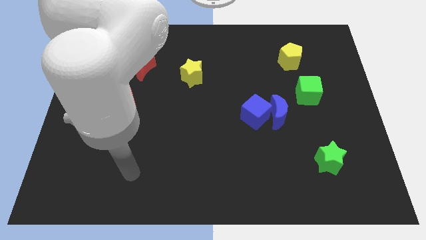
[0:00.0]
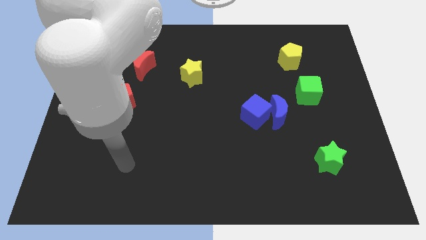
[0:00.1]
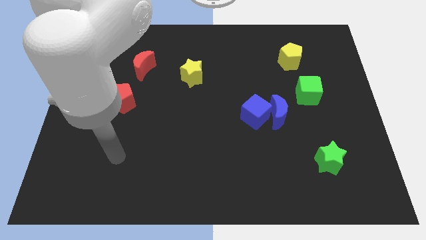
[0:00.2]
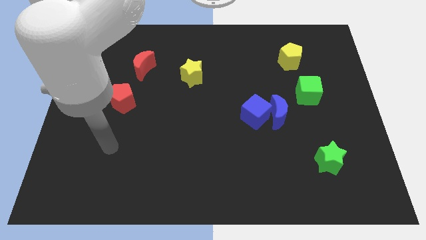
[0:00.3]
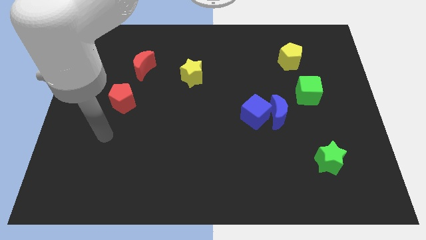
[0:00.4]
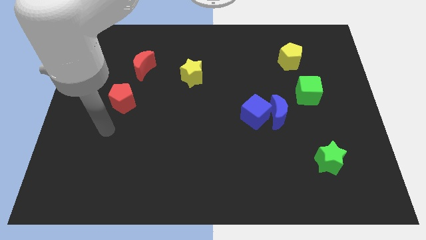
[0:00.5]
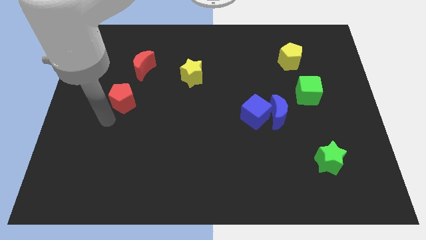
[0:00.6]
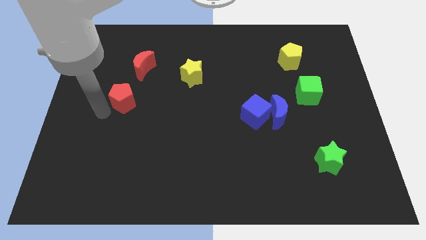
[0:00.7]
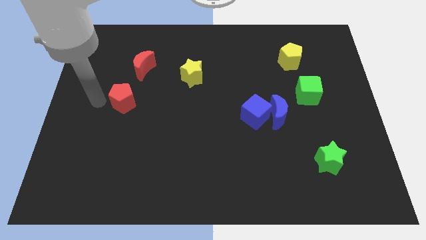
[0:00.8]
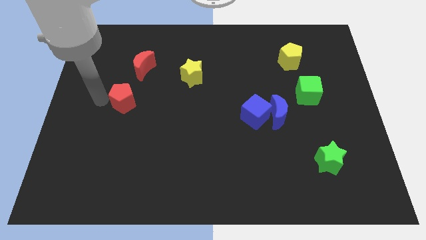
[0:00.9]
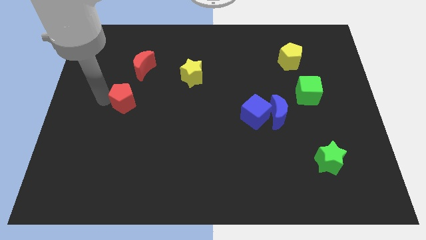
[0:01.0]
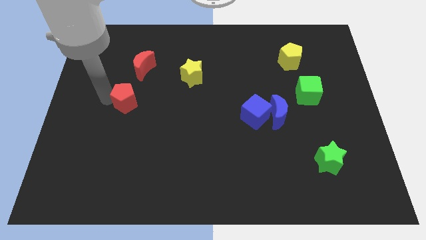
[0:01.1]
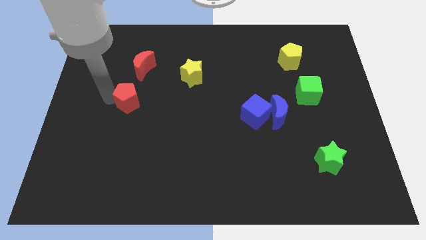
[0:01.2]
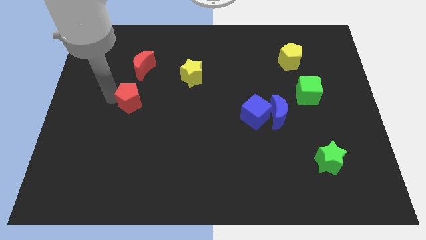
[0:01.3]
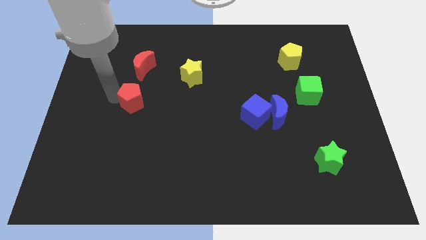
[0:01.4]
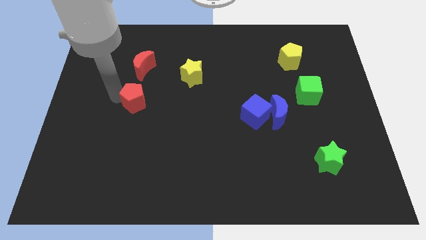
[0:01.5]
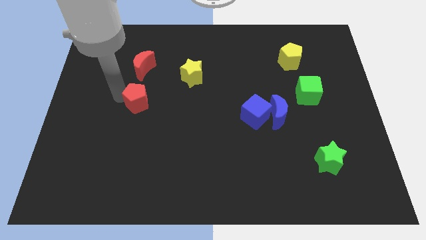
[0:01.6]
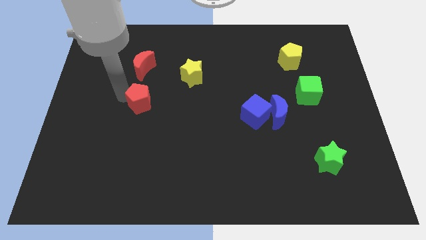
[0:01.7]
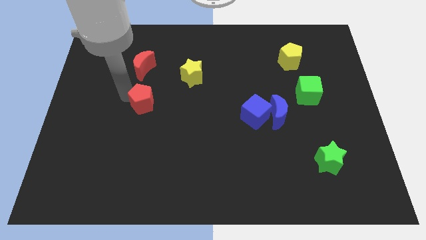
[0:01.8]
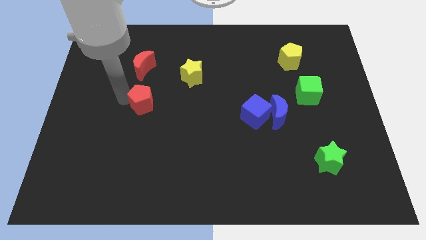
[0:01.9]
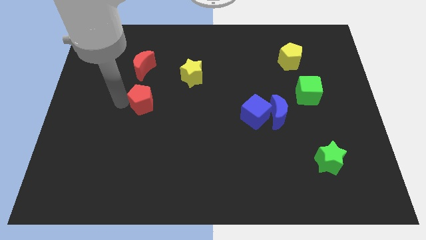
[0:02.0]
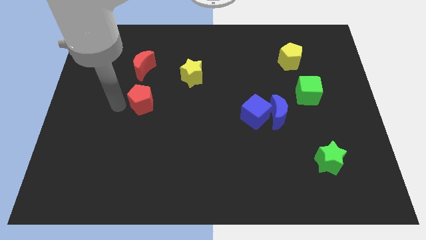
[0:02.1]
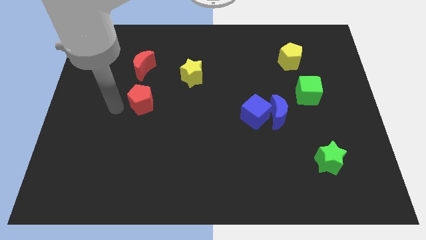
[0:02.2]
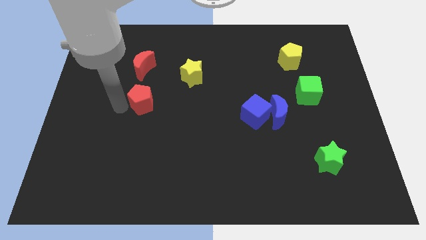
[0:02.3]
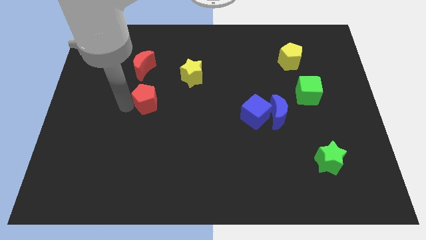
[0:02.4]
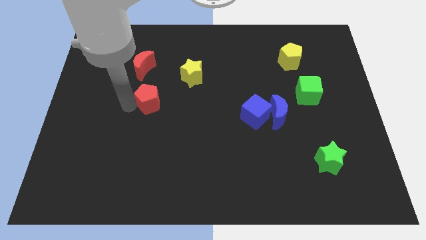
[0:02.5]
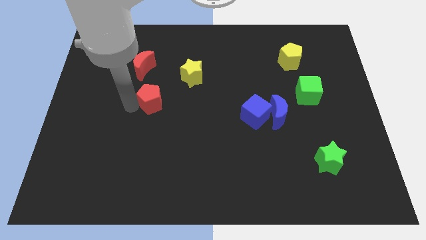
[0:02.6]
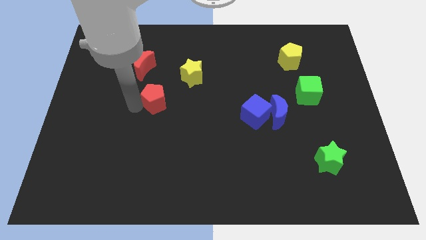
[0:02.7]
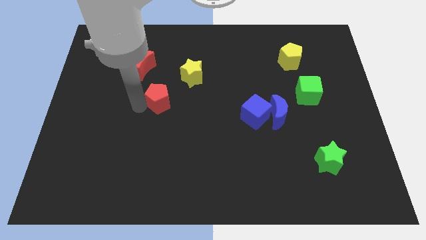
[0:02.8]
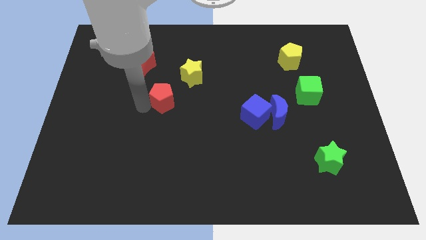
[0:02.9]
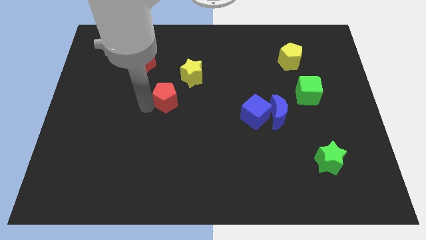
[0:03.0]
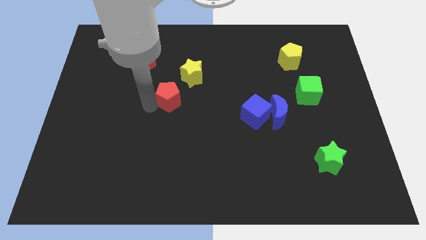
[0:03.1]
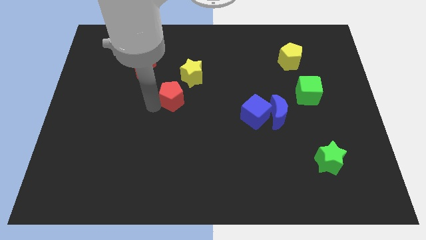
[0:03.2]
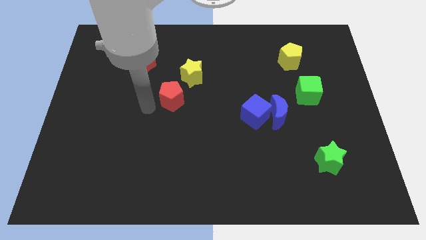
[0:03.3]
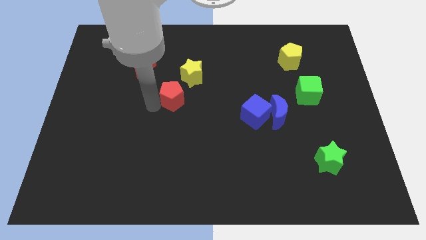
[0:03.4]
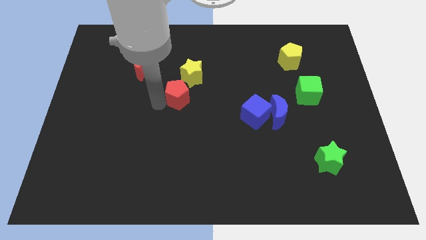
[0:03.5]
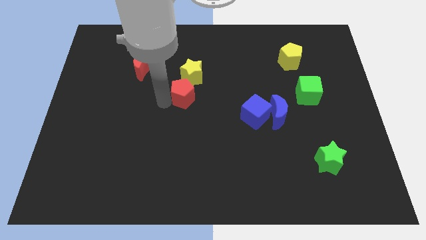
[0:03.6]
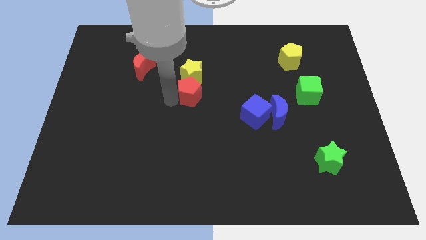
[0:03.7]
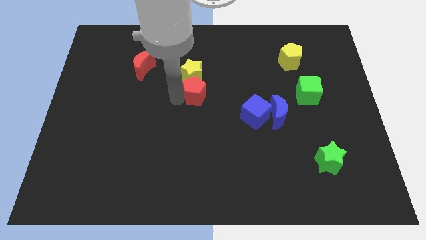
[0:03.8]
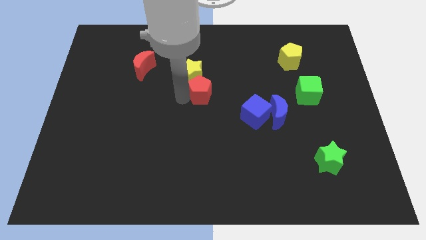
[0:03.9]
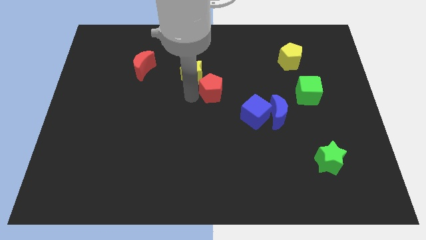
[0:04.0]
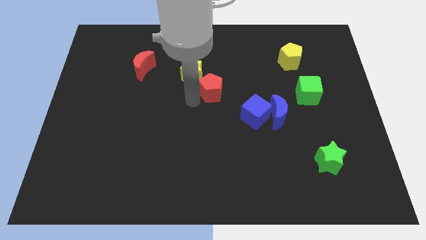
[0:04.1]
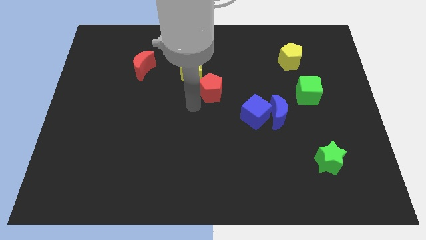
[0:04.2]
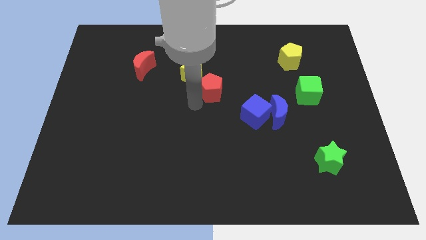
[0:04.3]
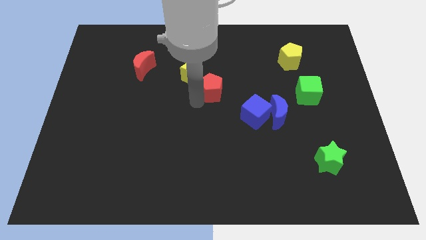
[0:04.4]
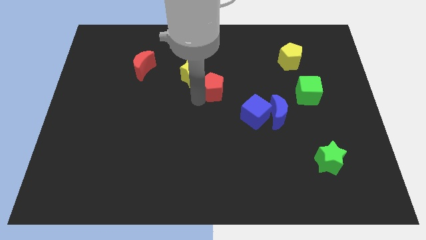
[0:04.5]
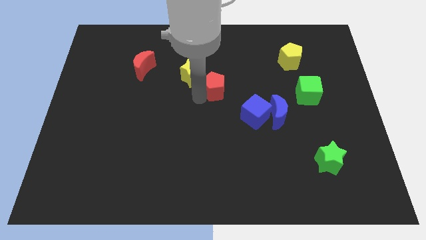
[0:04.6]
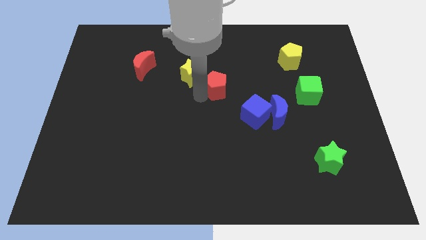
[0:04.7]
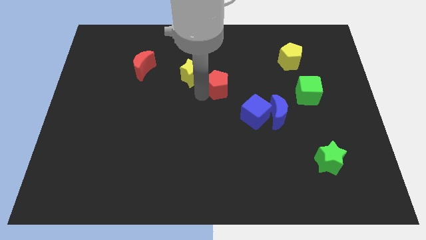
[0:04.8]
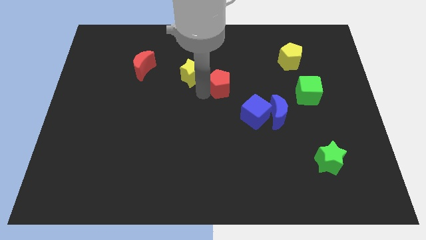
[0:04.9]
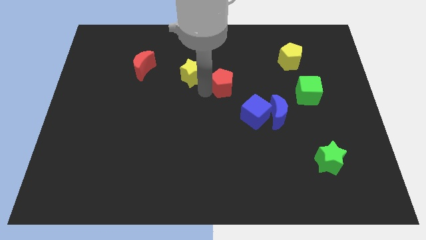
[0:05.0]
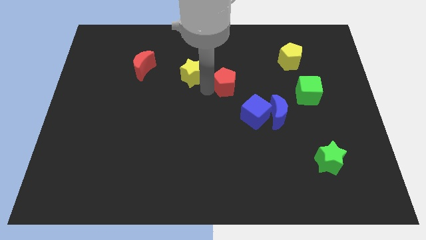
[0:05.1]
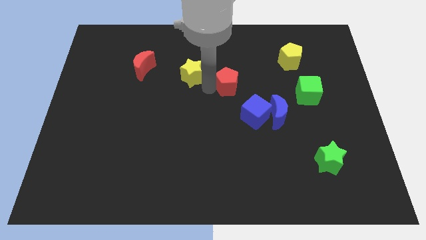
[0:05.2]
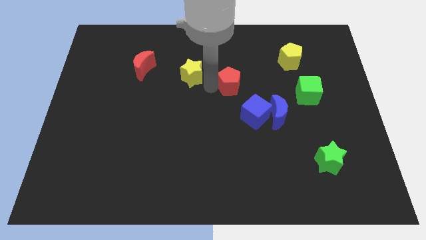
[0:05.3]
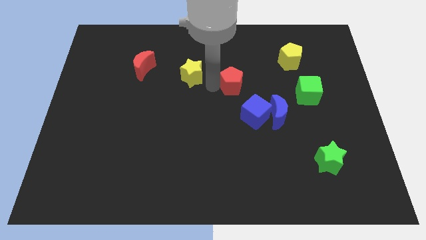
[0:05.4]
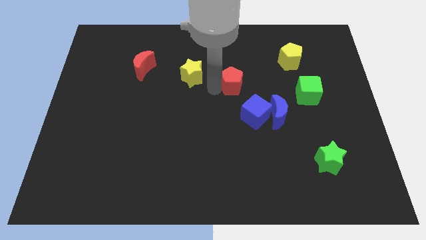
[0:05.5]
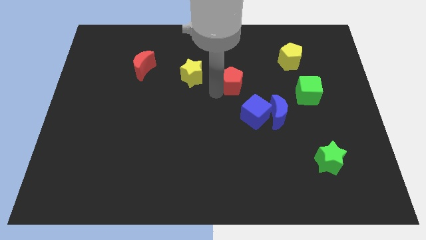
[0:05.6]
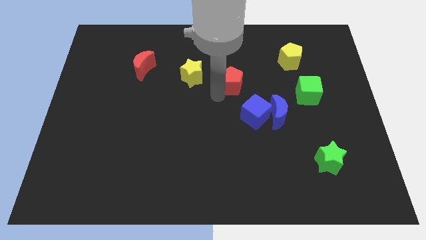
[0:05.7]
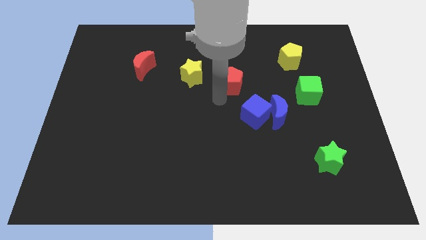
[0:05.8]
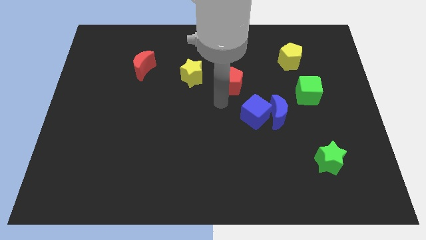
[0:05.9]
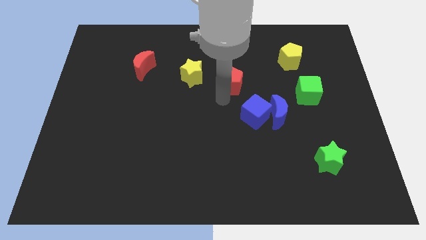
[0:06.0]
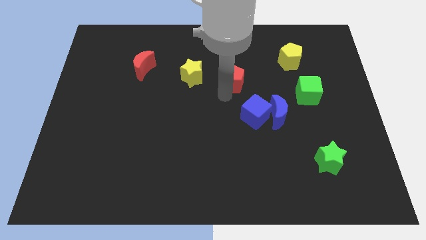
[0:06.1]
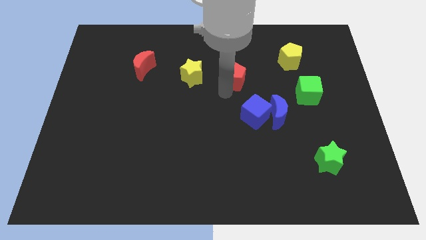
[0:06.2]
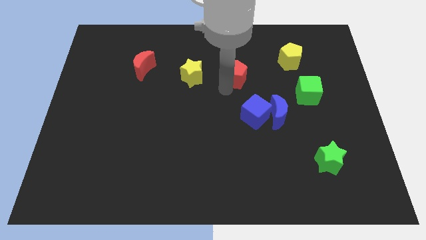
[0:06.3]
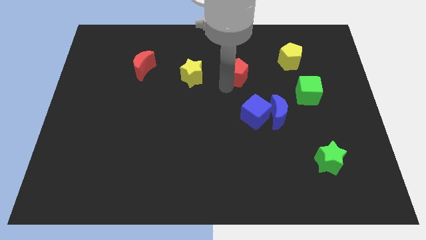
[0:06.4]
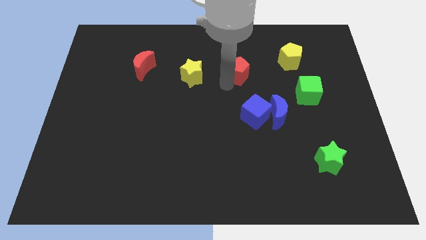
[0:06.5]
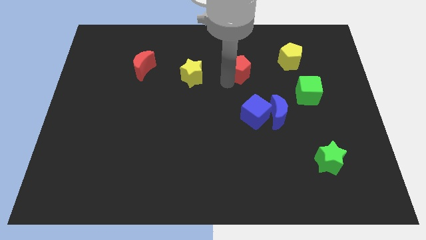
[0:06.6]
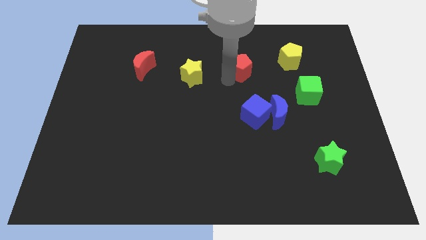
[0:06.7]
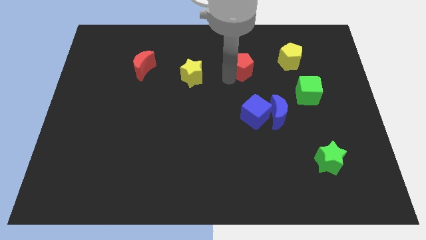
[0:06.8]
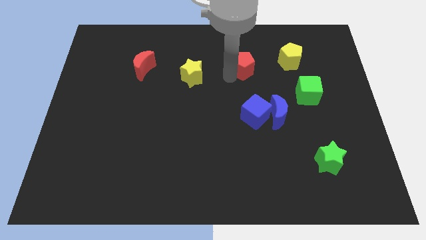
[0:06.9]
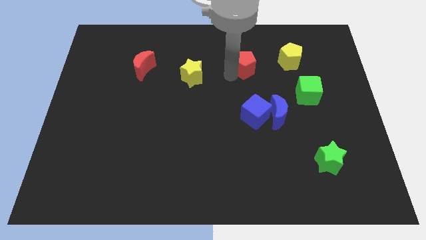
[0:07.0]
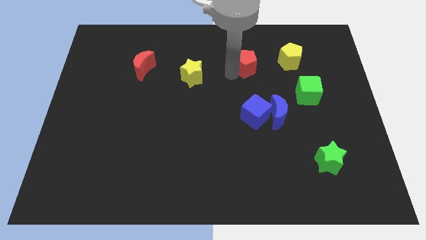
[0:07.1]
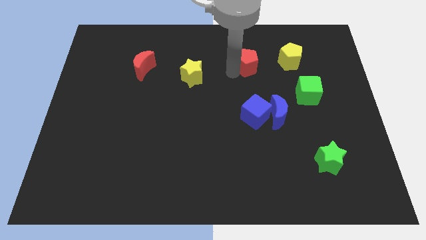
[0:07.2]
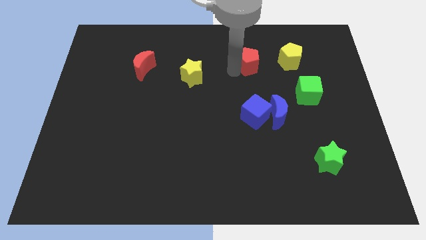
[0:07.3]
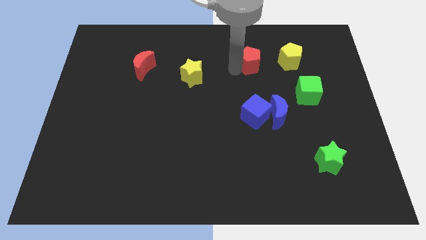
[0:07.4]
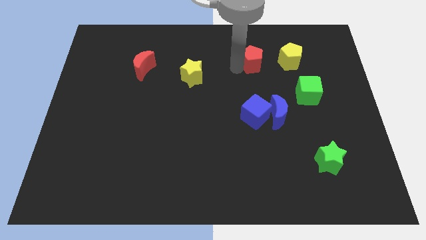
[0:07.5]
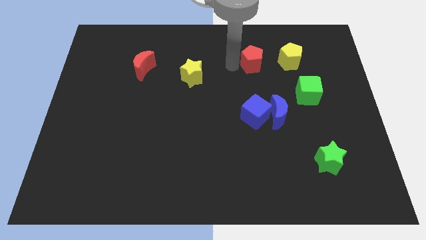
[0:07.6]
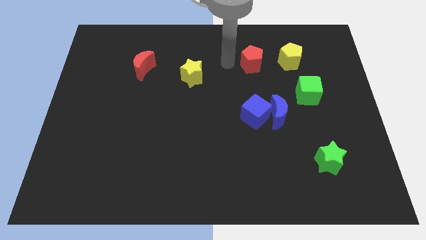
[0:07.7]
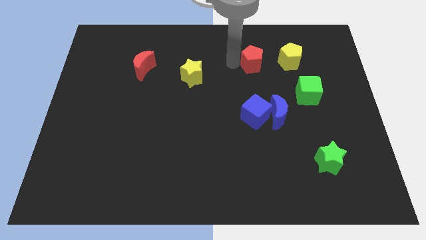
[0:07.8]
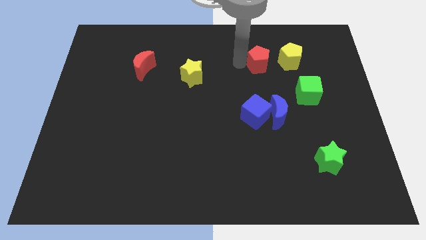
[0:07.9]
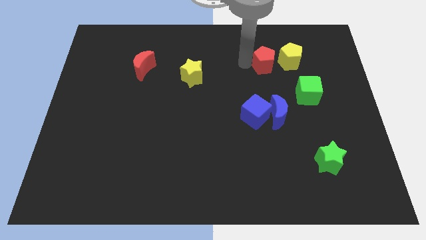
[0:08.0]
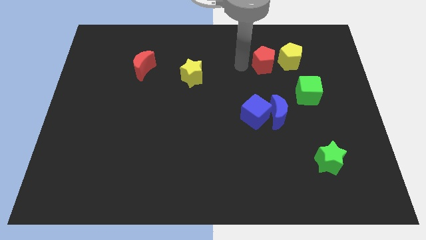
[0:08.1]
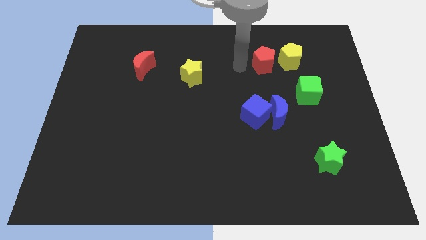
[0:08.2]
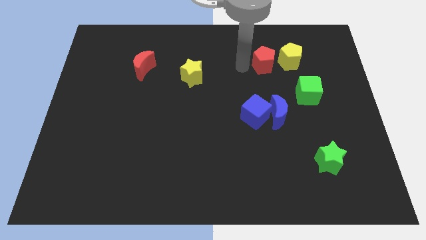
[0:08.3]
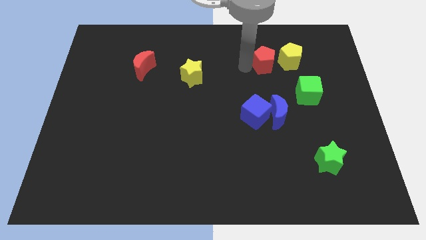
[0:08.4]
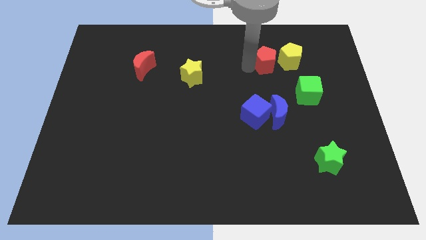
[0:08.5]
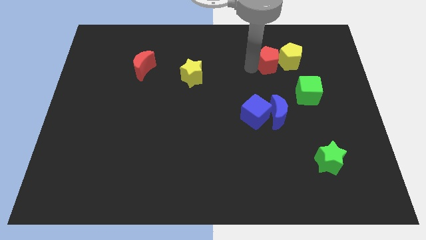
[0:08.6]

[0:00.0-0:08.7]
move the red pentagon towards the yellow pentagon
